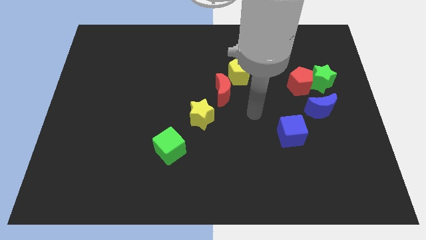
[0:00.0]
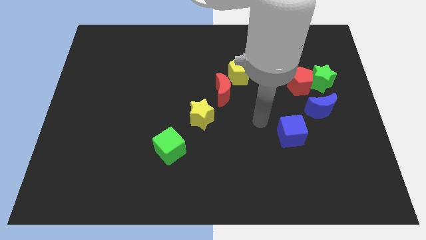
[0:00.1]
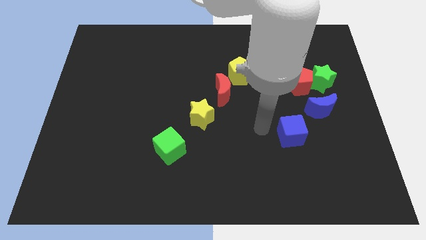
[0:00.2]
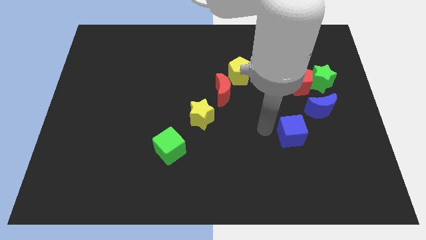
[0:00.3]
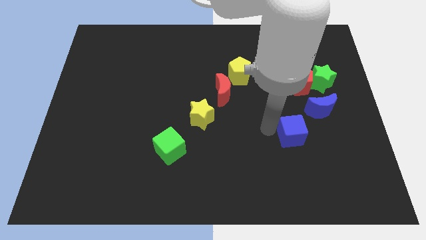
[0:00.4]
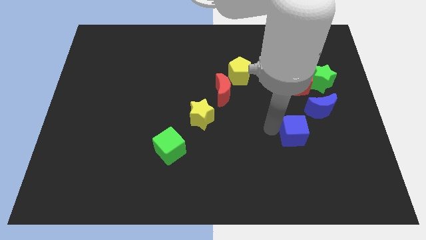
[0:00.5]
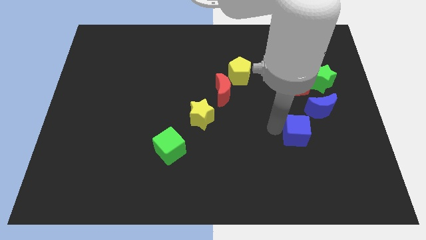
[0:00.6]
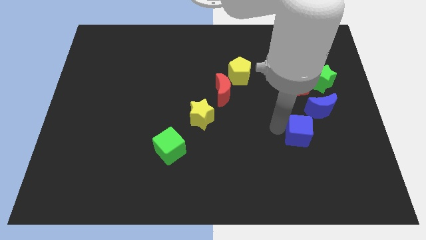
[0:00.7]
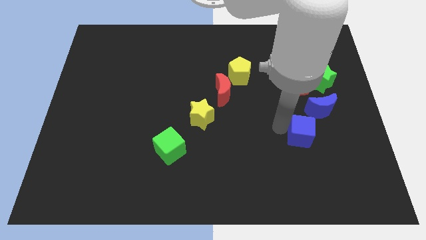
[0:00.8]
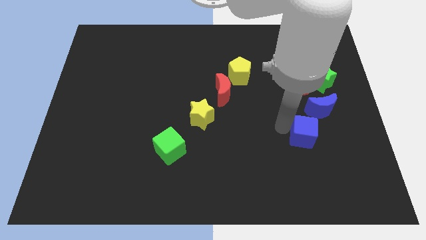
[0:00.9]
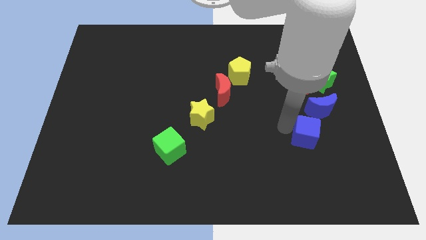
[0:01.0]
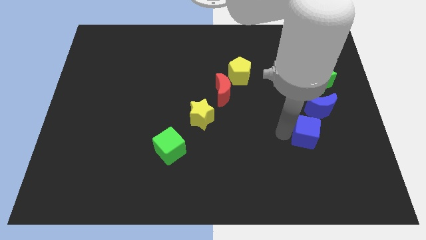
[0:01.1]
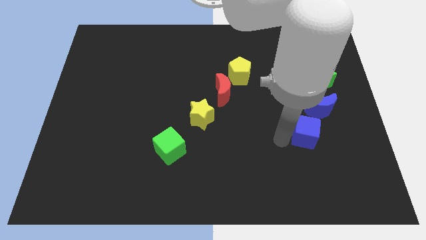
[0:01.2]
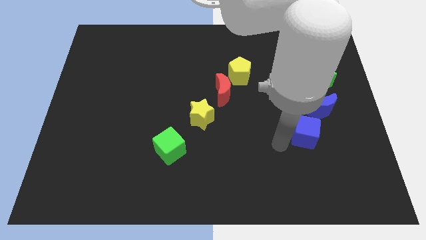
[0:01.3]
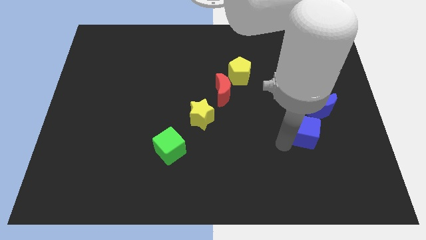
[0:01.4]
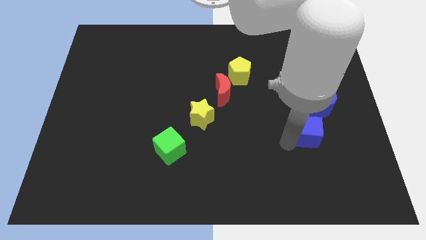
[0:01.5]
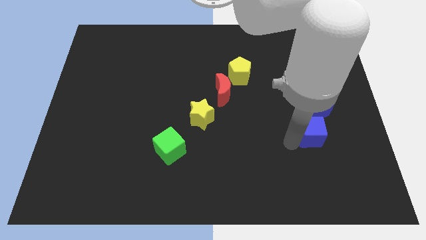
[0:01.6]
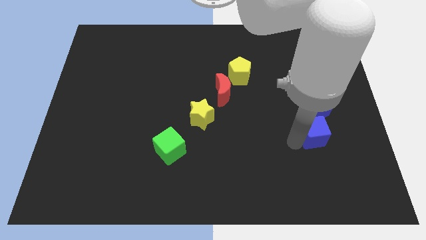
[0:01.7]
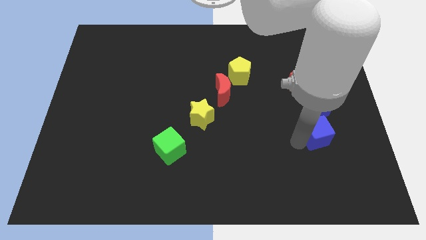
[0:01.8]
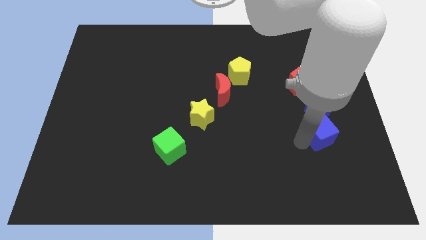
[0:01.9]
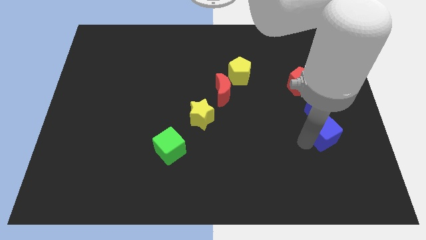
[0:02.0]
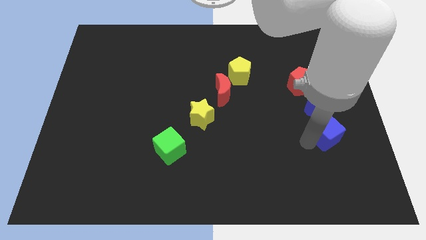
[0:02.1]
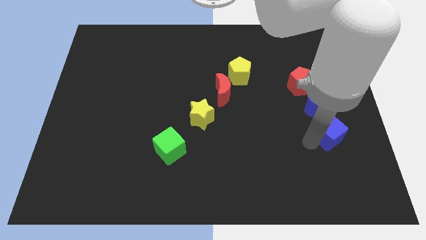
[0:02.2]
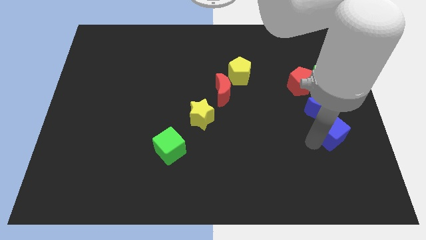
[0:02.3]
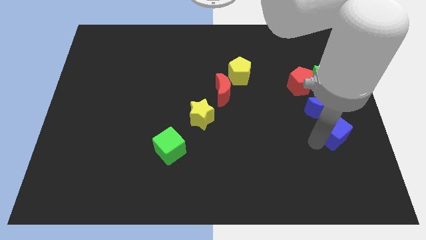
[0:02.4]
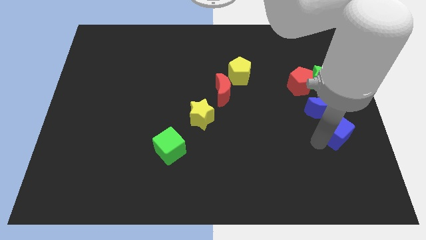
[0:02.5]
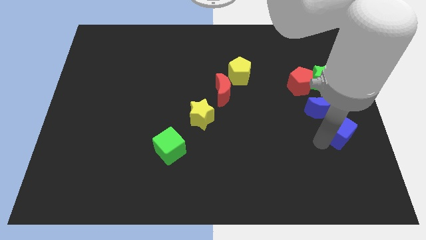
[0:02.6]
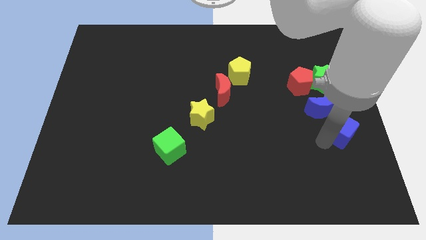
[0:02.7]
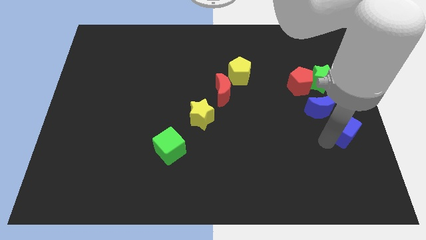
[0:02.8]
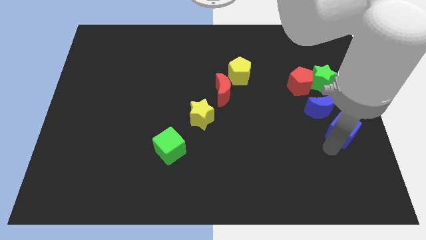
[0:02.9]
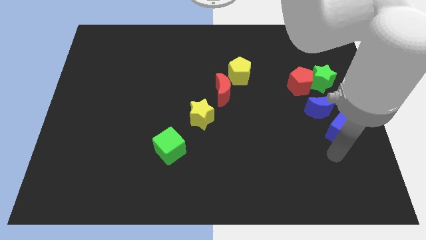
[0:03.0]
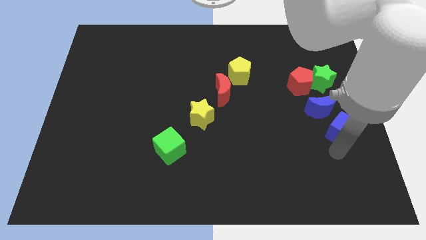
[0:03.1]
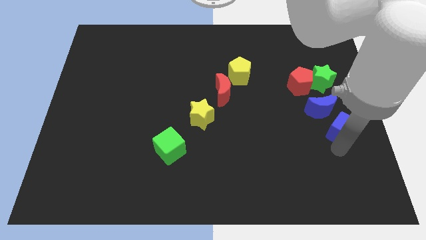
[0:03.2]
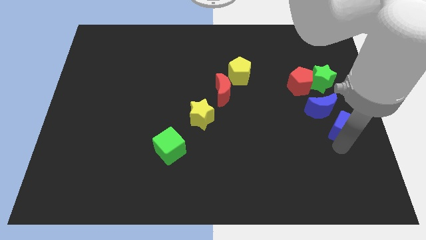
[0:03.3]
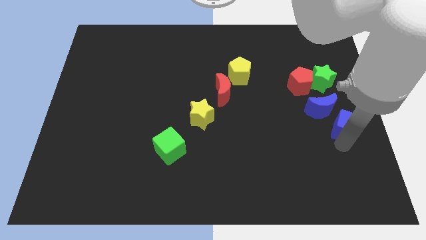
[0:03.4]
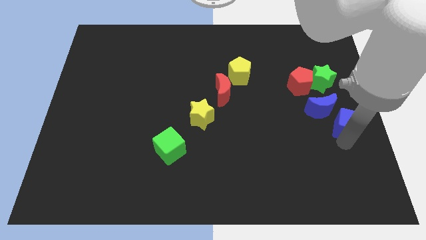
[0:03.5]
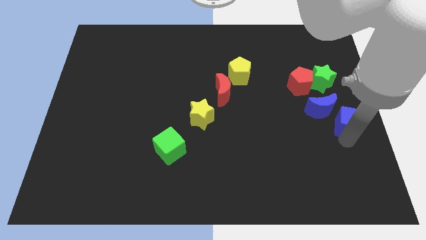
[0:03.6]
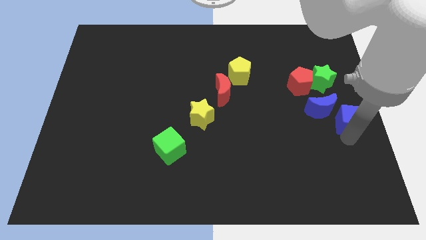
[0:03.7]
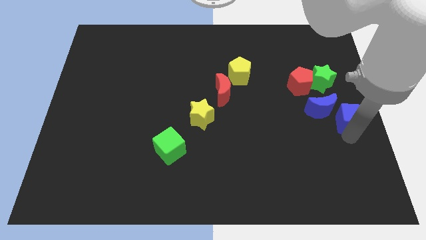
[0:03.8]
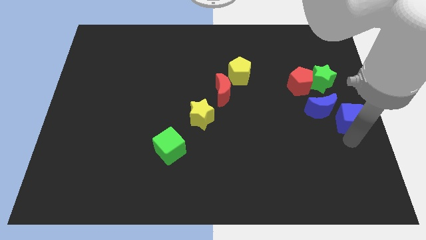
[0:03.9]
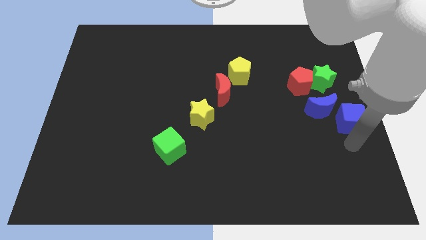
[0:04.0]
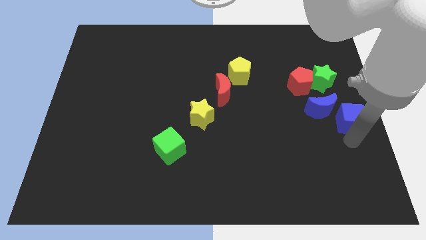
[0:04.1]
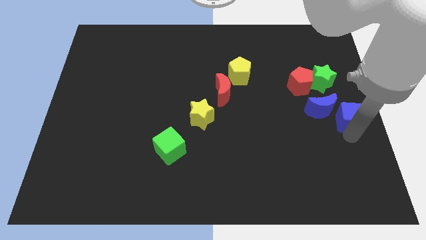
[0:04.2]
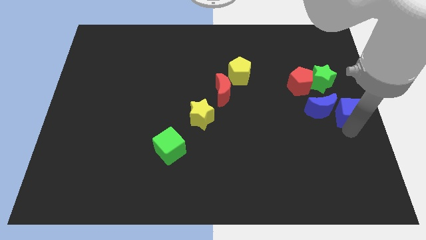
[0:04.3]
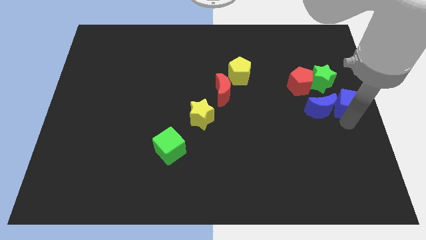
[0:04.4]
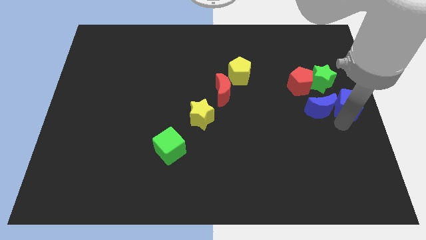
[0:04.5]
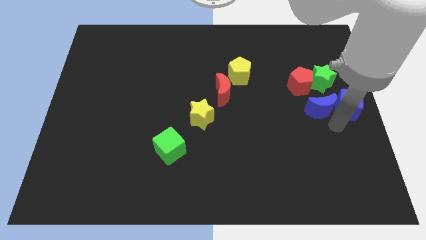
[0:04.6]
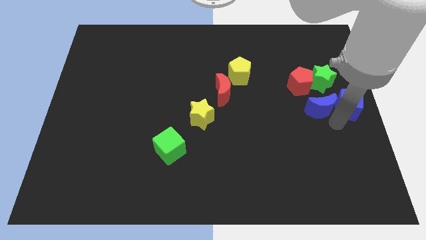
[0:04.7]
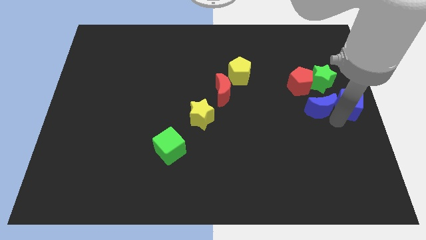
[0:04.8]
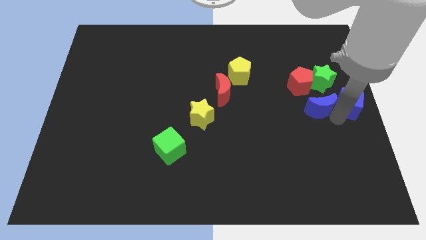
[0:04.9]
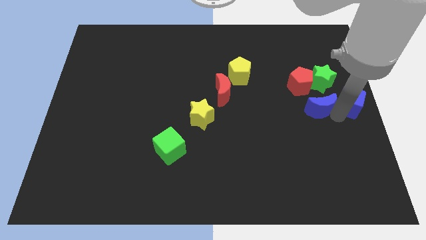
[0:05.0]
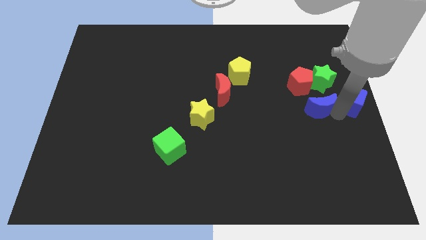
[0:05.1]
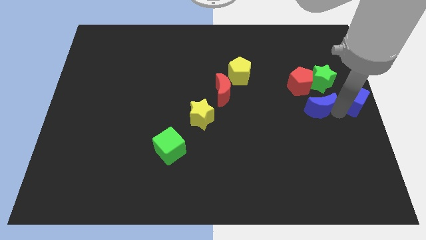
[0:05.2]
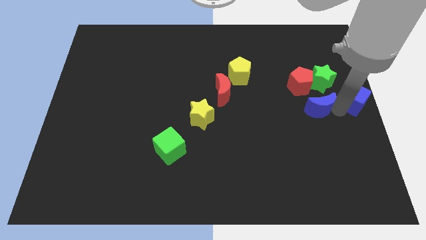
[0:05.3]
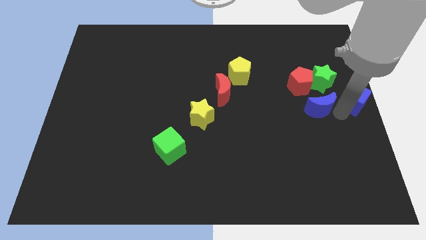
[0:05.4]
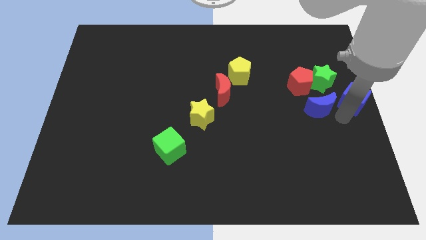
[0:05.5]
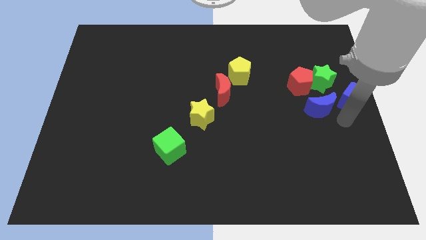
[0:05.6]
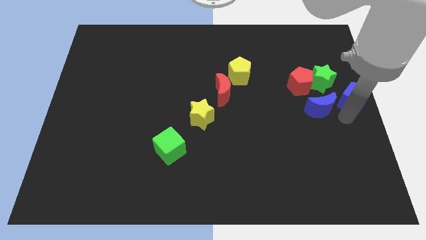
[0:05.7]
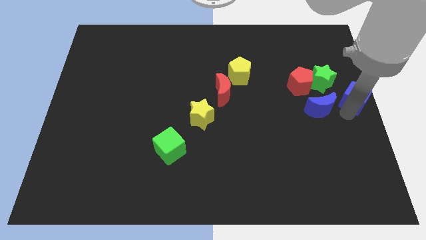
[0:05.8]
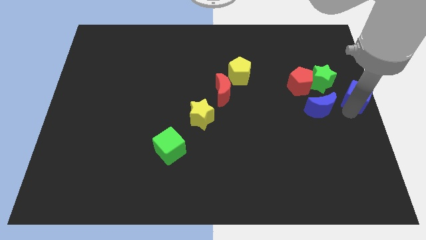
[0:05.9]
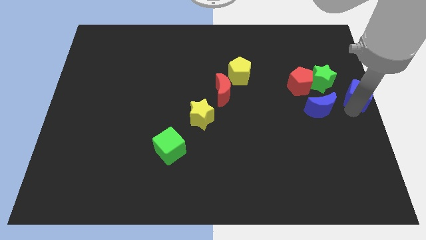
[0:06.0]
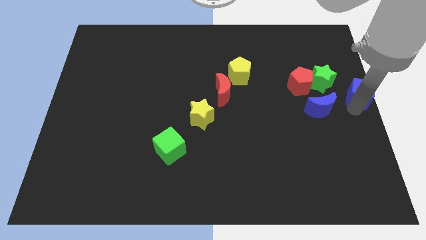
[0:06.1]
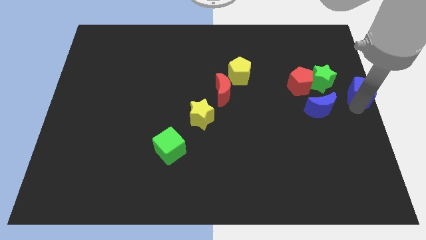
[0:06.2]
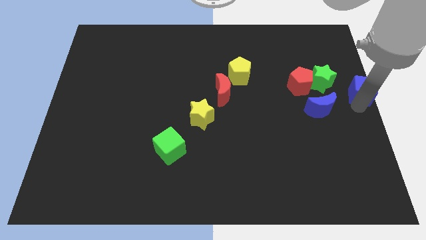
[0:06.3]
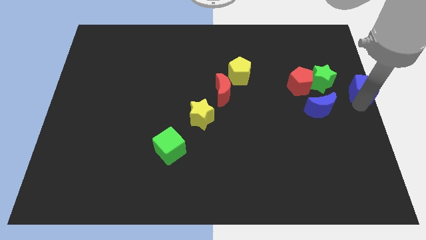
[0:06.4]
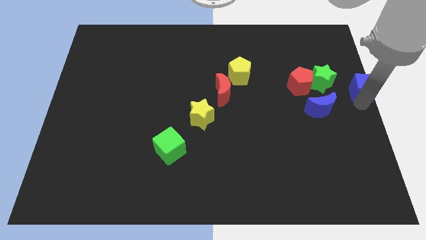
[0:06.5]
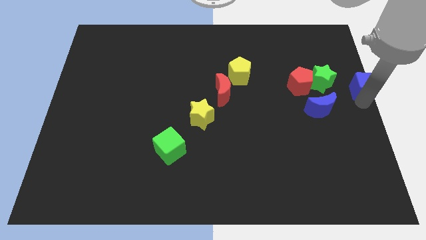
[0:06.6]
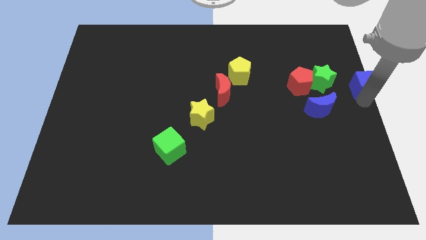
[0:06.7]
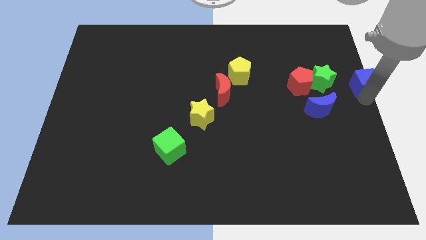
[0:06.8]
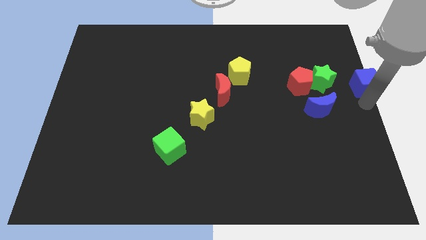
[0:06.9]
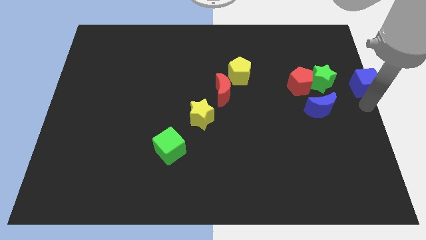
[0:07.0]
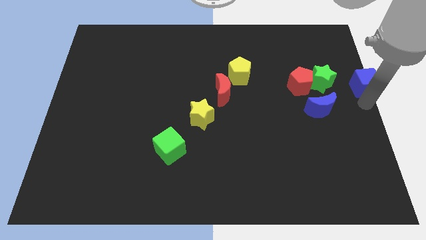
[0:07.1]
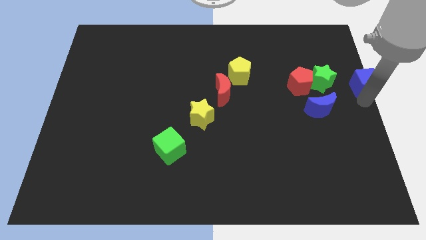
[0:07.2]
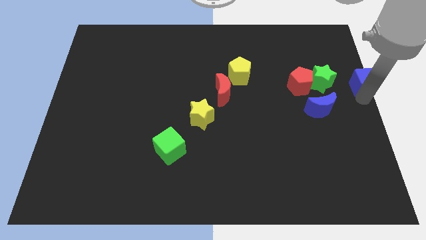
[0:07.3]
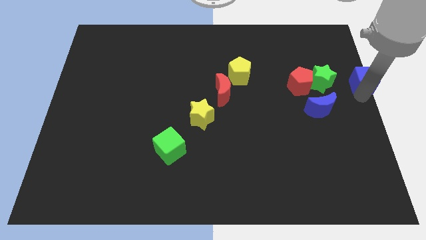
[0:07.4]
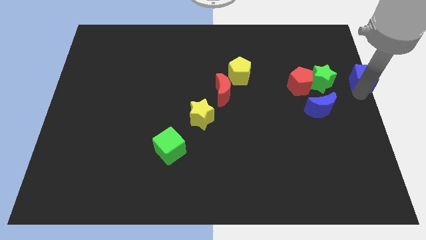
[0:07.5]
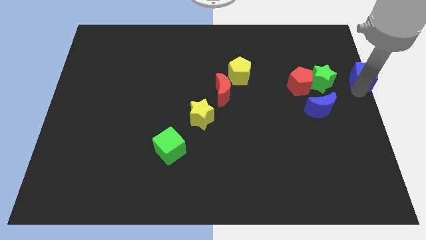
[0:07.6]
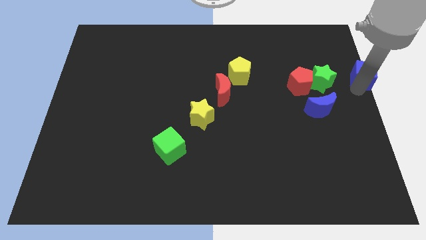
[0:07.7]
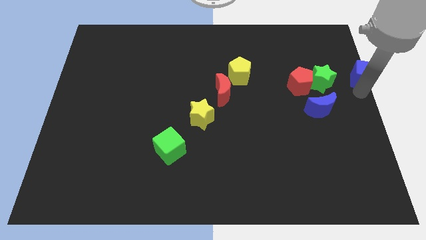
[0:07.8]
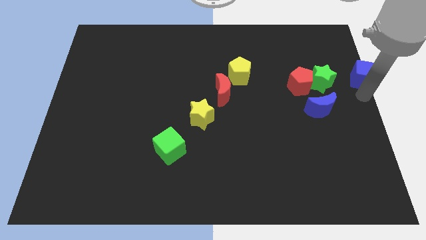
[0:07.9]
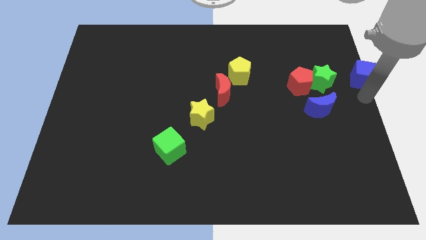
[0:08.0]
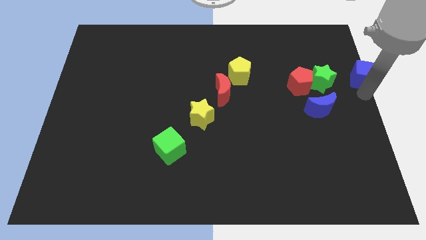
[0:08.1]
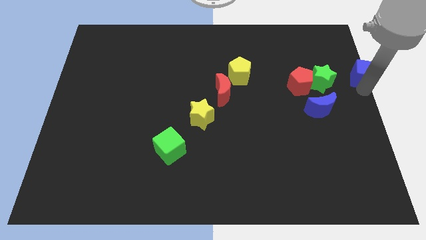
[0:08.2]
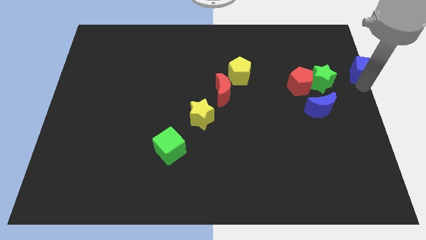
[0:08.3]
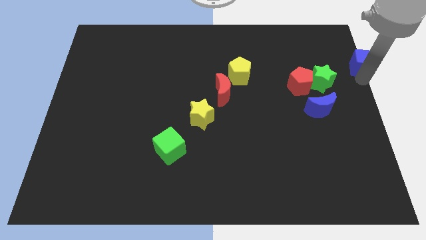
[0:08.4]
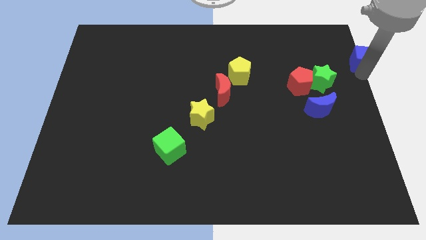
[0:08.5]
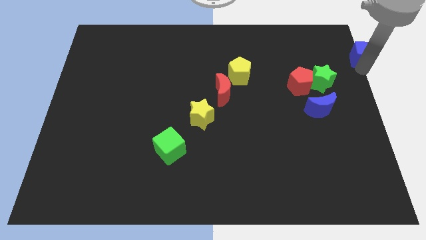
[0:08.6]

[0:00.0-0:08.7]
put the blue cube to the top right of the board
